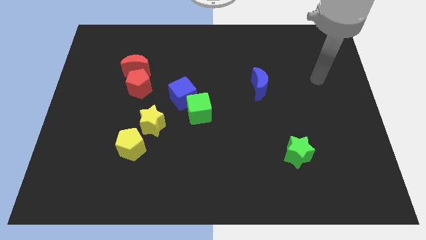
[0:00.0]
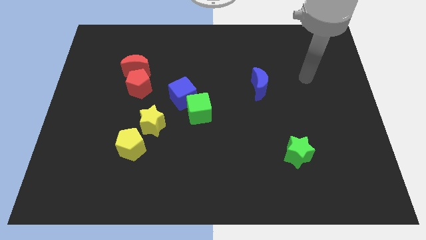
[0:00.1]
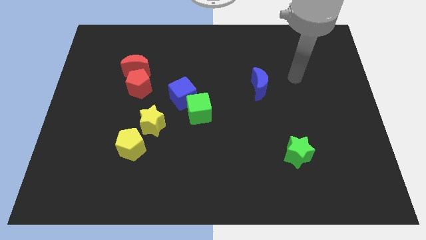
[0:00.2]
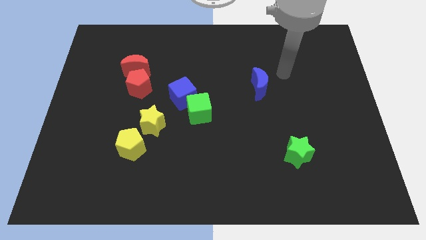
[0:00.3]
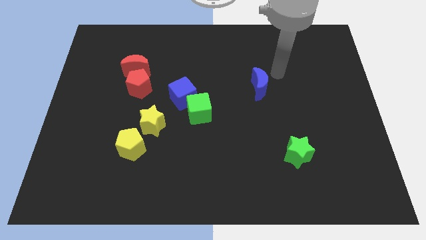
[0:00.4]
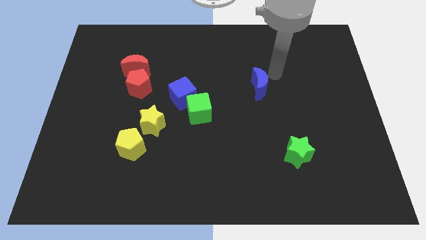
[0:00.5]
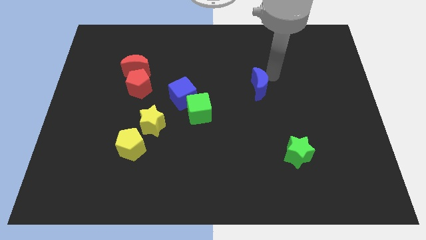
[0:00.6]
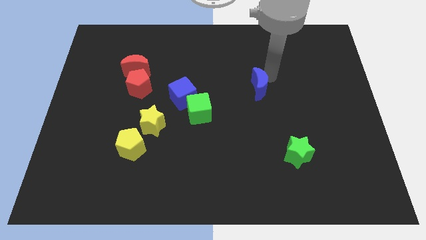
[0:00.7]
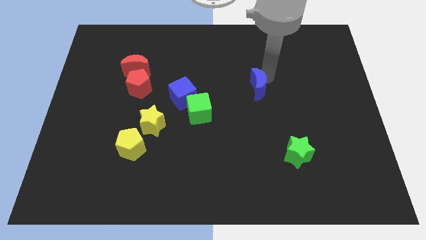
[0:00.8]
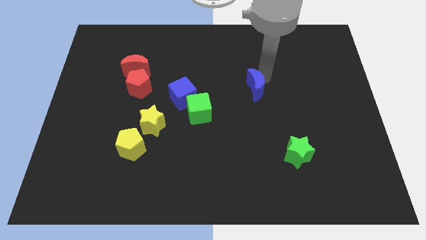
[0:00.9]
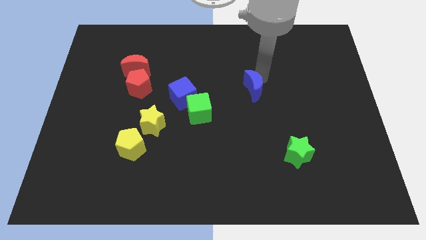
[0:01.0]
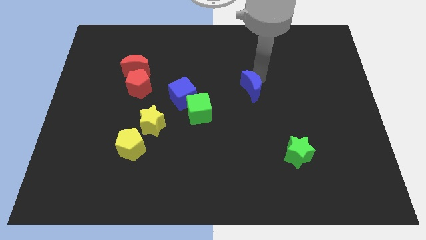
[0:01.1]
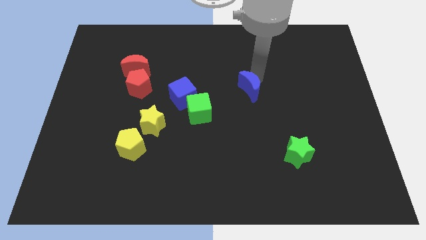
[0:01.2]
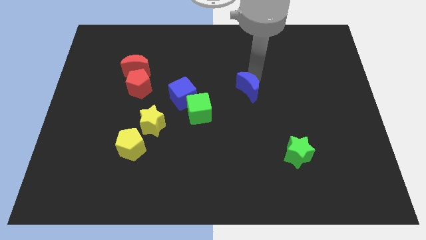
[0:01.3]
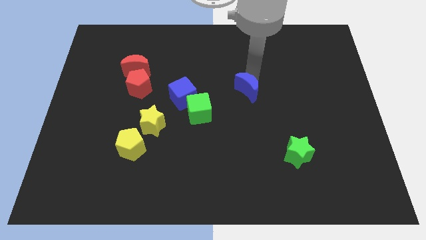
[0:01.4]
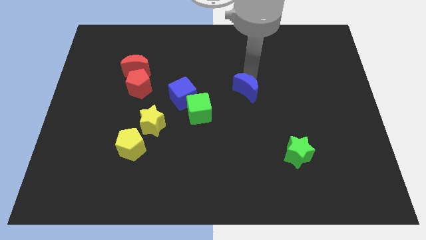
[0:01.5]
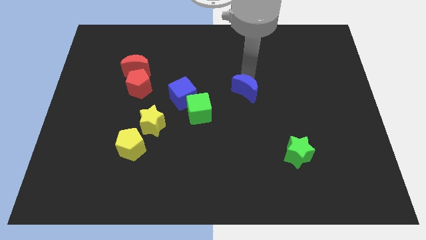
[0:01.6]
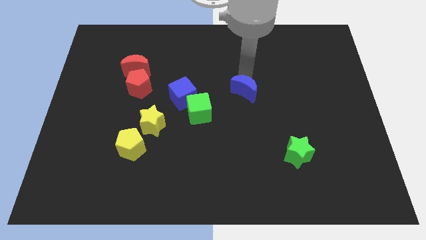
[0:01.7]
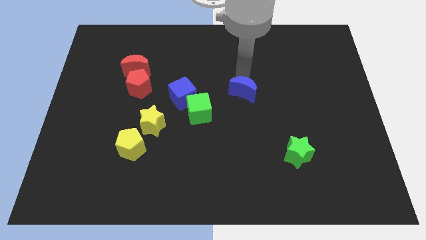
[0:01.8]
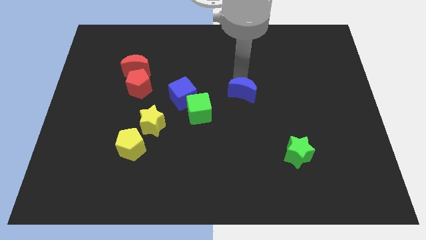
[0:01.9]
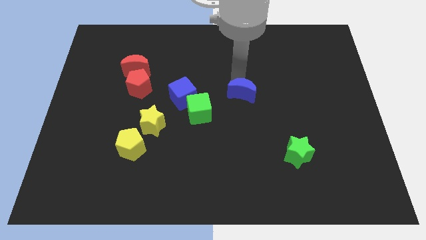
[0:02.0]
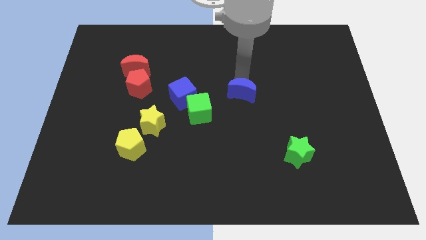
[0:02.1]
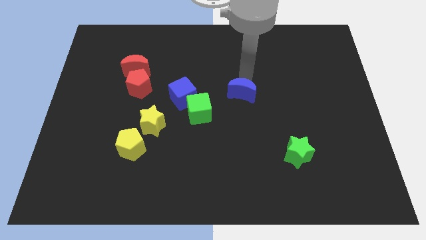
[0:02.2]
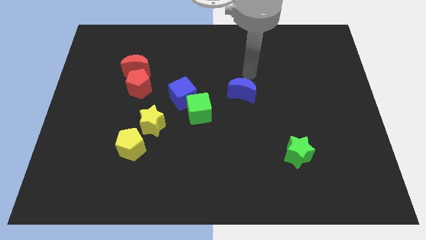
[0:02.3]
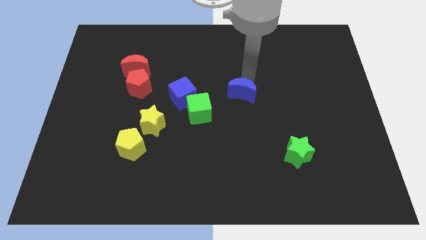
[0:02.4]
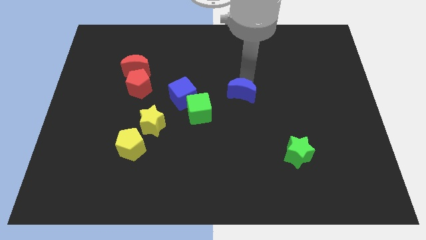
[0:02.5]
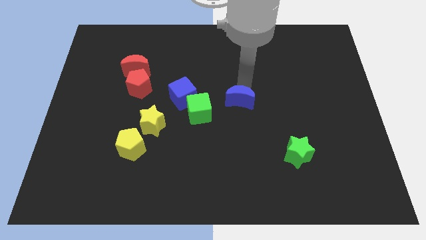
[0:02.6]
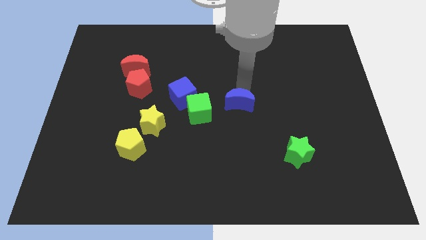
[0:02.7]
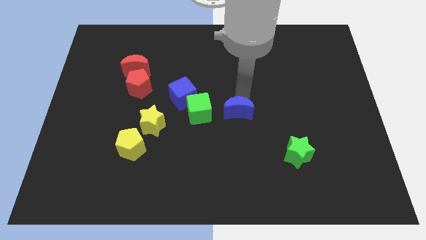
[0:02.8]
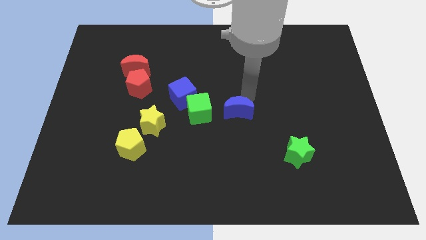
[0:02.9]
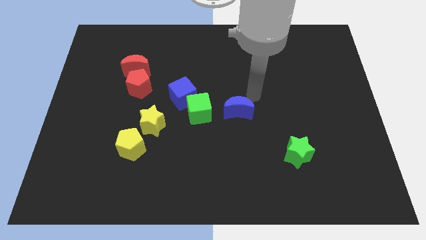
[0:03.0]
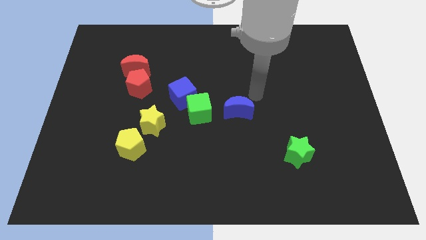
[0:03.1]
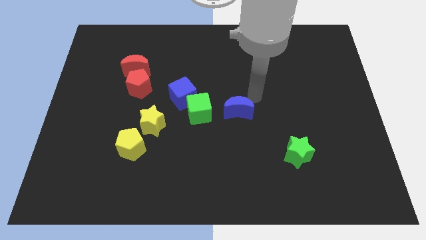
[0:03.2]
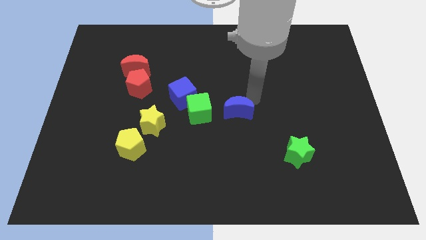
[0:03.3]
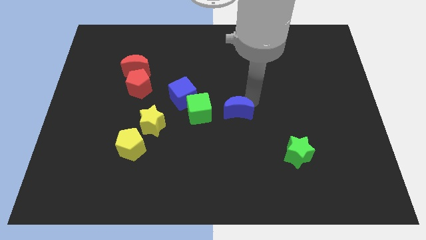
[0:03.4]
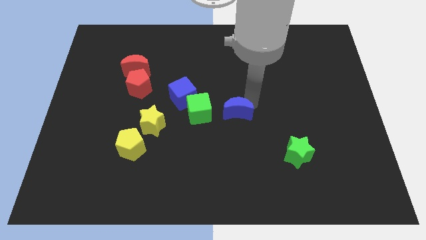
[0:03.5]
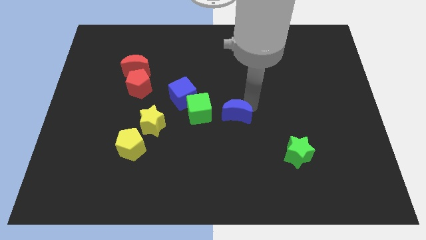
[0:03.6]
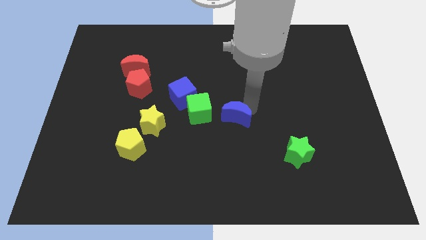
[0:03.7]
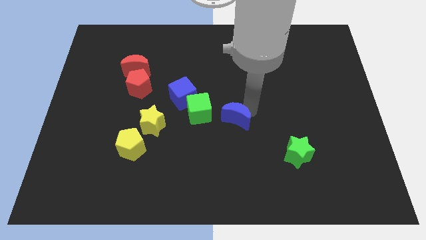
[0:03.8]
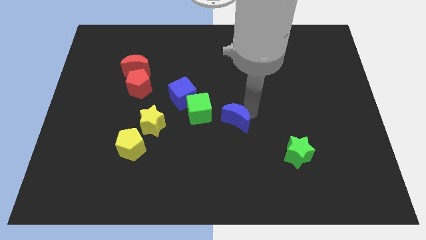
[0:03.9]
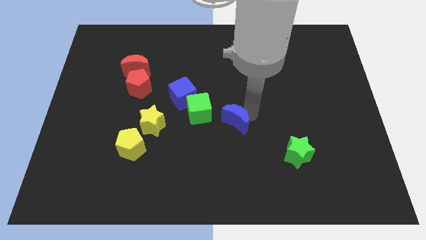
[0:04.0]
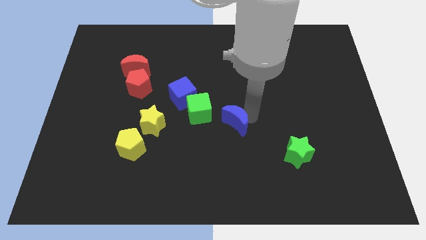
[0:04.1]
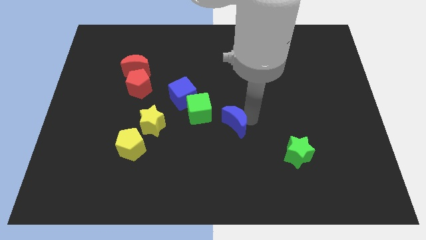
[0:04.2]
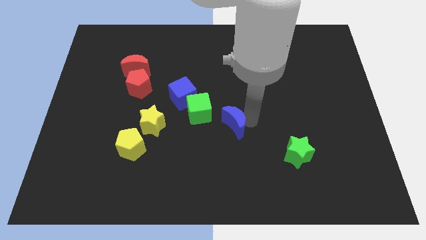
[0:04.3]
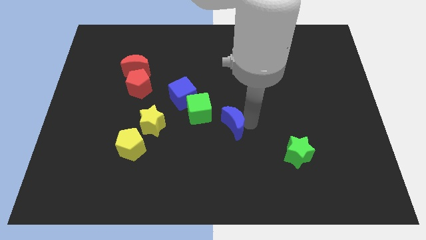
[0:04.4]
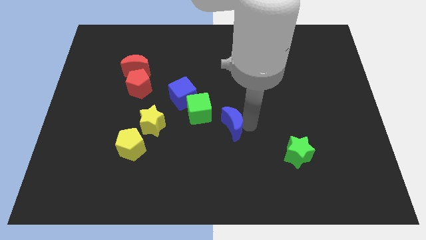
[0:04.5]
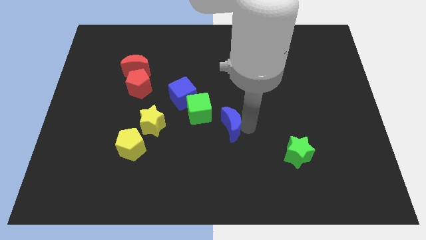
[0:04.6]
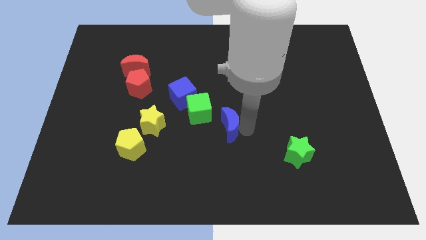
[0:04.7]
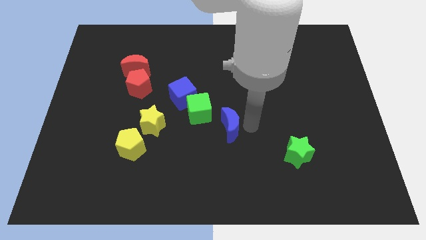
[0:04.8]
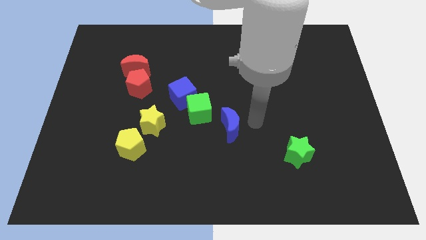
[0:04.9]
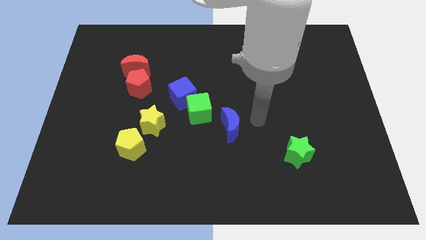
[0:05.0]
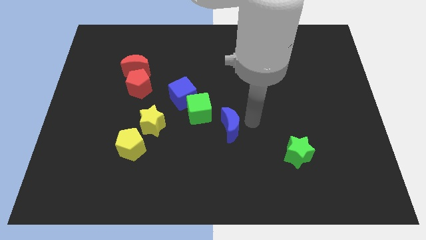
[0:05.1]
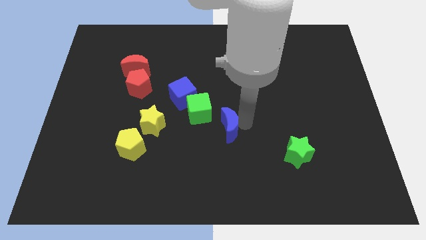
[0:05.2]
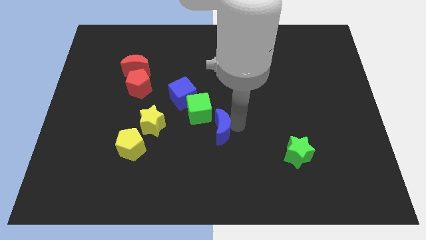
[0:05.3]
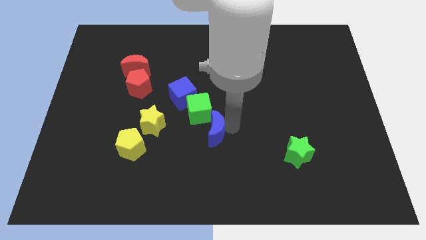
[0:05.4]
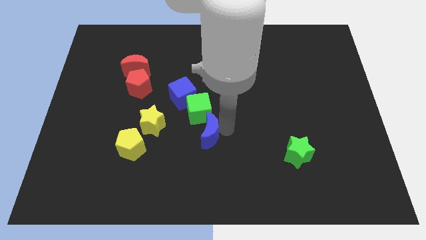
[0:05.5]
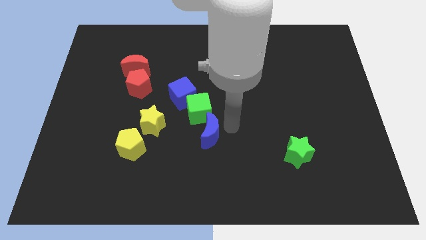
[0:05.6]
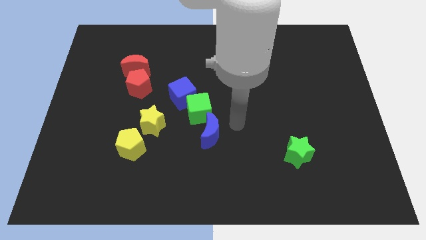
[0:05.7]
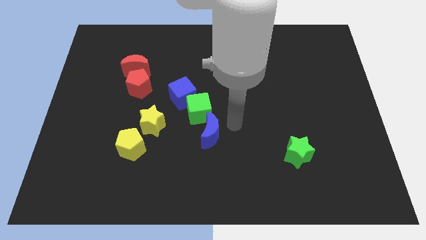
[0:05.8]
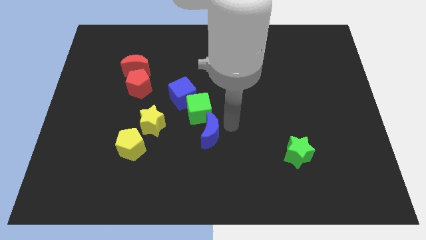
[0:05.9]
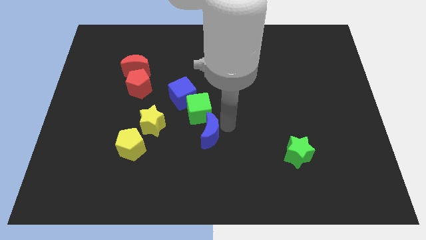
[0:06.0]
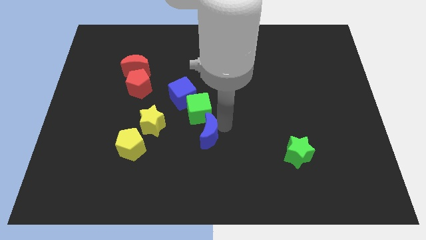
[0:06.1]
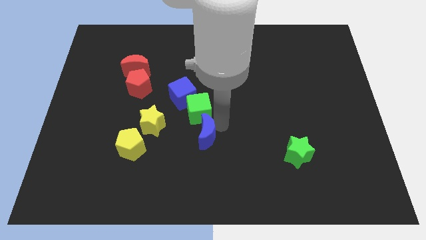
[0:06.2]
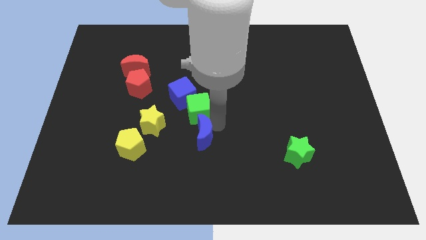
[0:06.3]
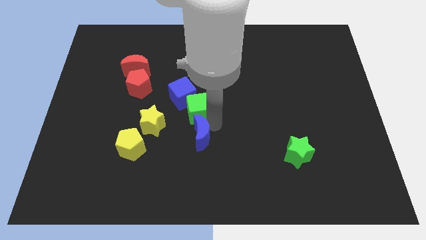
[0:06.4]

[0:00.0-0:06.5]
slide the blue moon to the right of the yellow pentagon

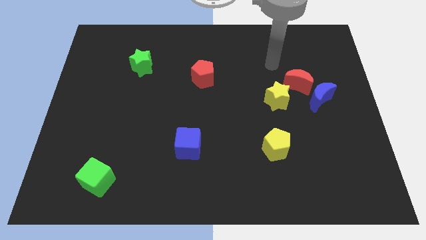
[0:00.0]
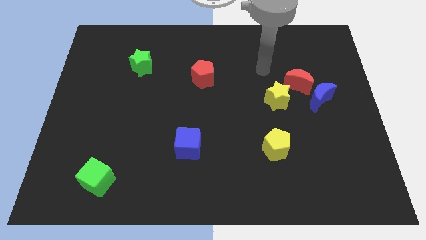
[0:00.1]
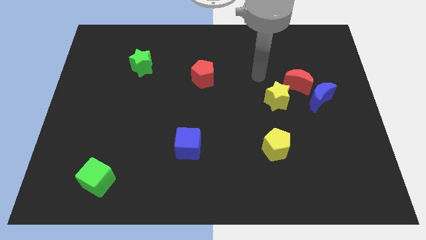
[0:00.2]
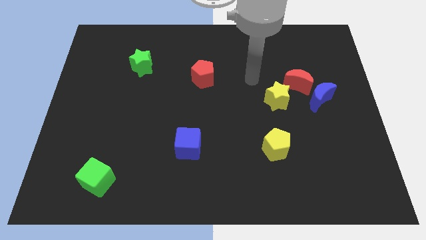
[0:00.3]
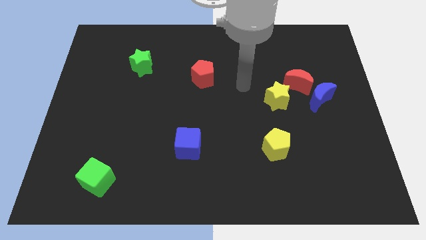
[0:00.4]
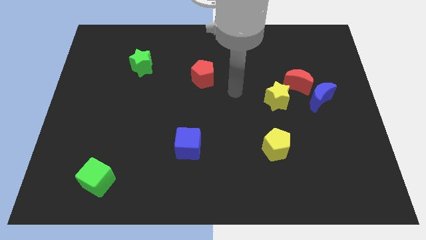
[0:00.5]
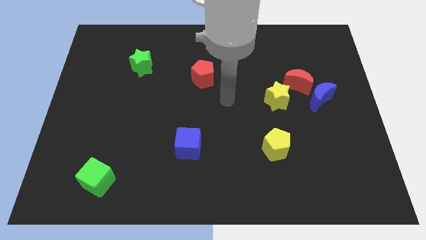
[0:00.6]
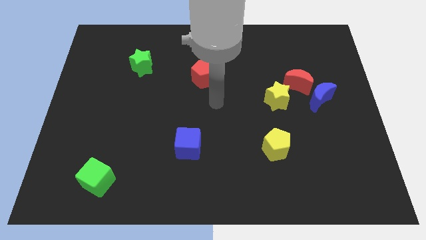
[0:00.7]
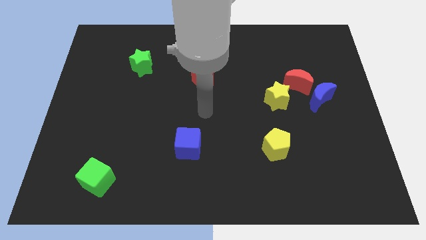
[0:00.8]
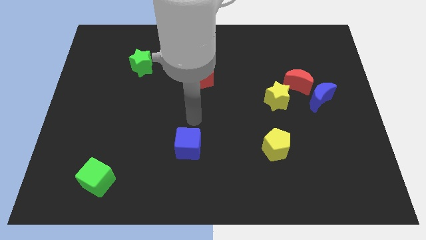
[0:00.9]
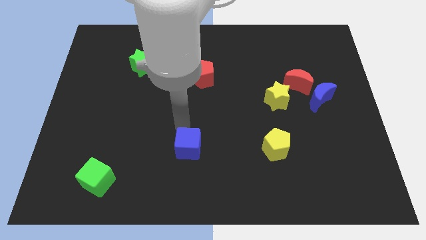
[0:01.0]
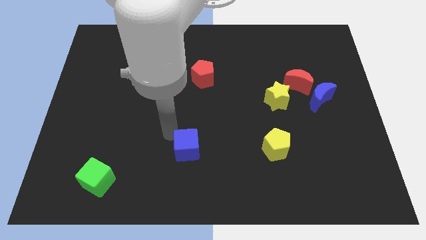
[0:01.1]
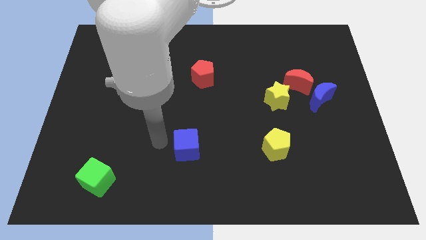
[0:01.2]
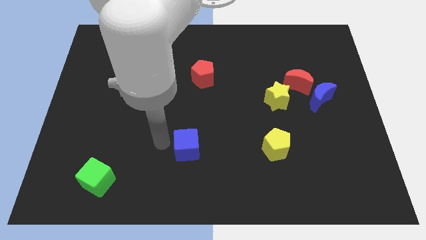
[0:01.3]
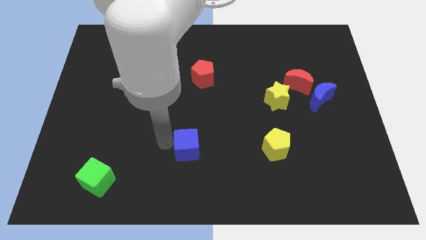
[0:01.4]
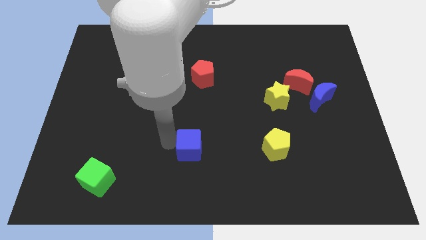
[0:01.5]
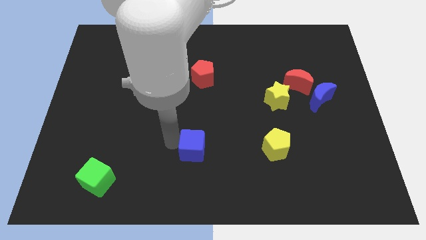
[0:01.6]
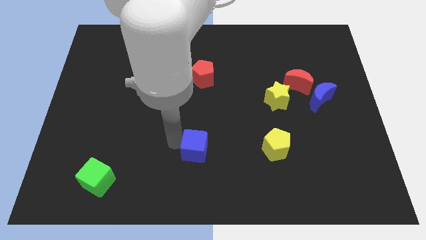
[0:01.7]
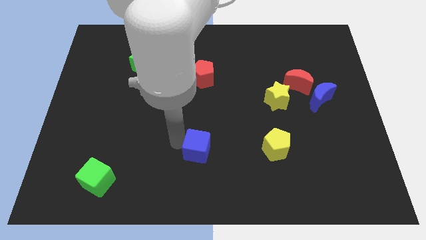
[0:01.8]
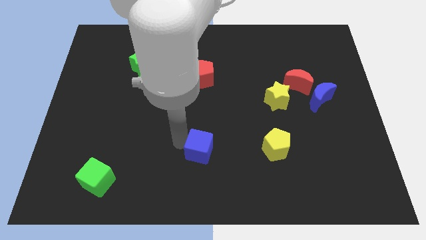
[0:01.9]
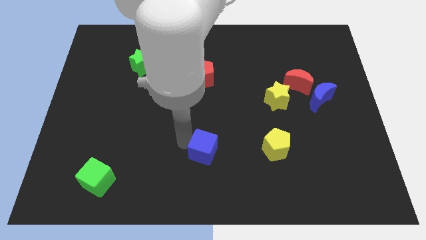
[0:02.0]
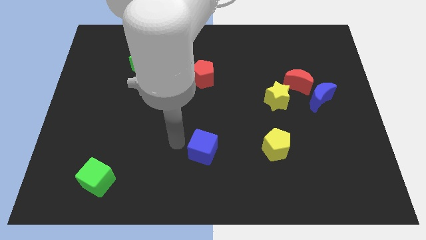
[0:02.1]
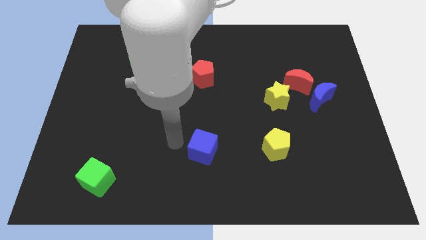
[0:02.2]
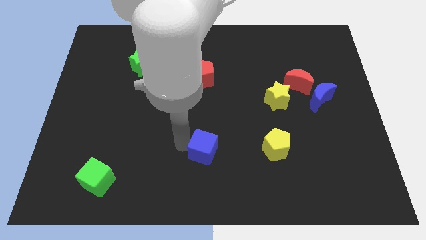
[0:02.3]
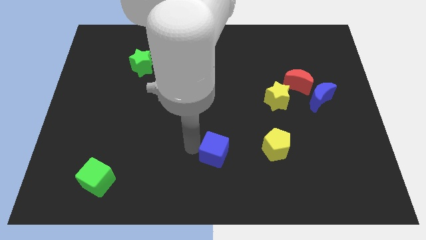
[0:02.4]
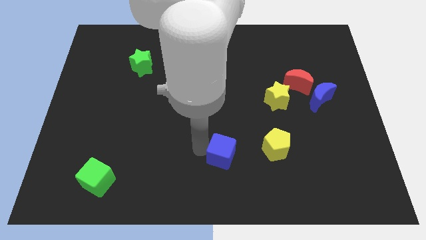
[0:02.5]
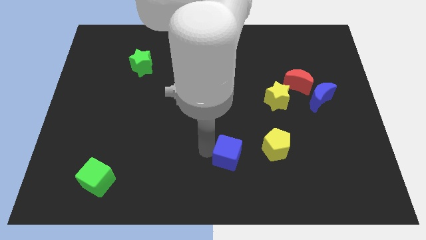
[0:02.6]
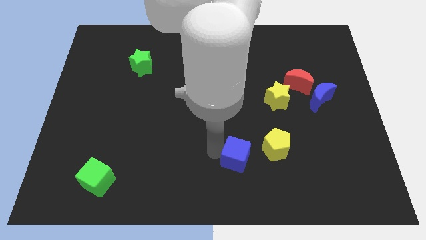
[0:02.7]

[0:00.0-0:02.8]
slide the blue cube to the bottom left of the yellow pentagon
